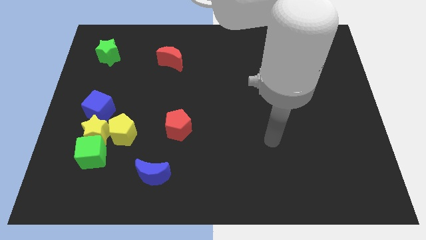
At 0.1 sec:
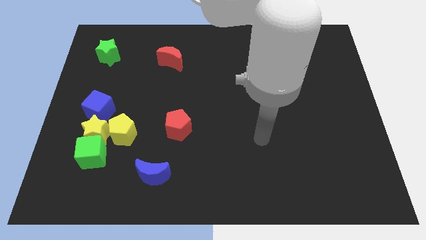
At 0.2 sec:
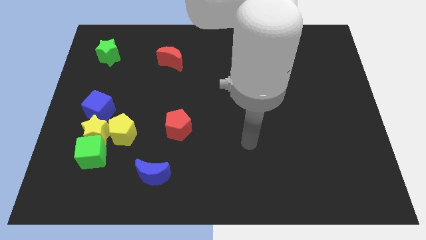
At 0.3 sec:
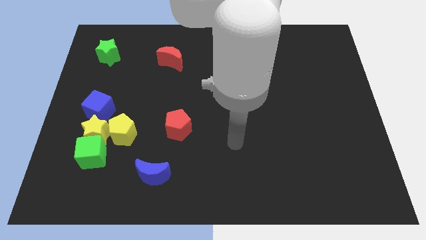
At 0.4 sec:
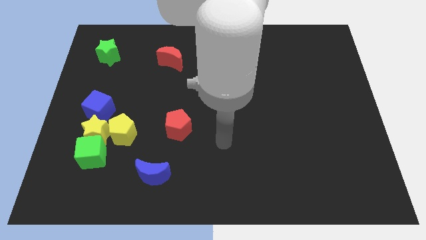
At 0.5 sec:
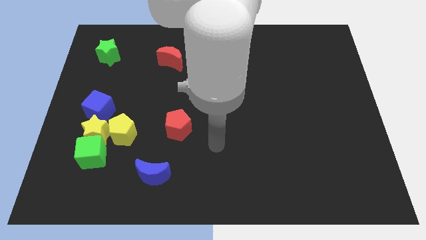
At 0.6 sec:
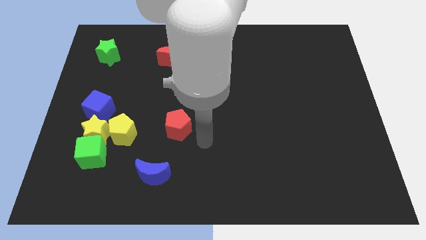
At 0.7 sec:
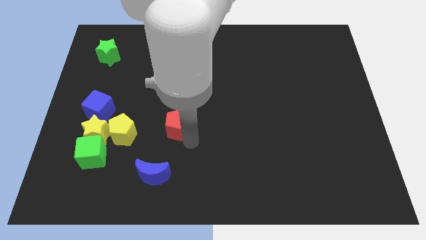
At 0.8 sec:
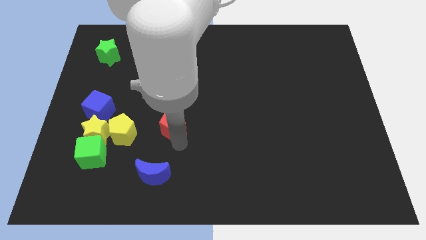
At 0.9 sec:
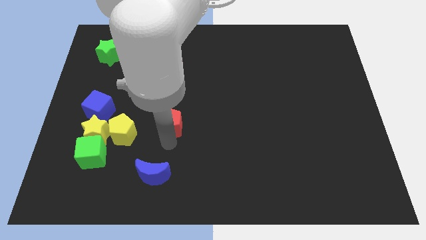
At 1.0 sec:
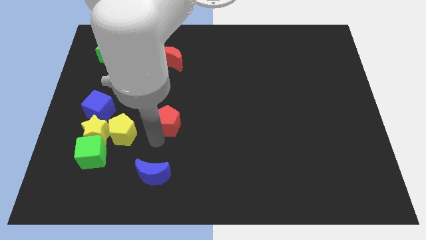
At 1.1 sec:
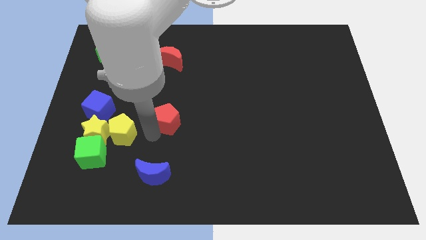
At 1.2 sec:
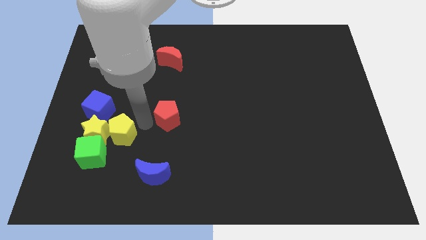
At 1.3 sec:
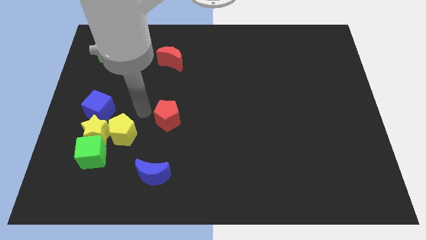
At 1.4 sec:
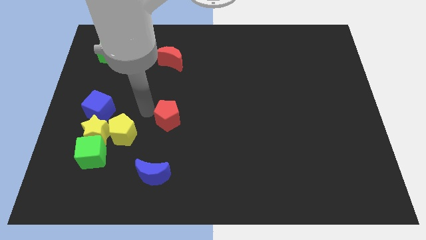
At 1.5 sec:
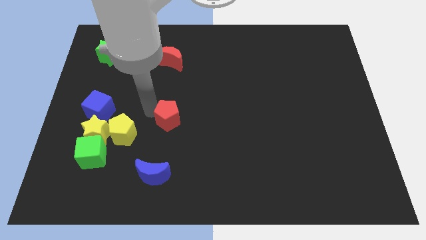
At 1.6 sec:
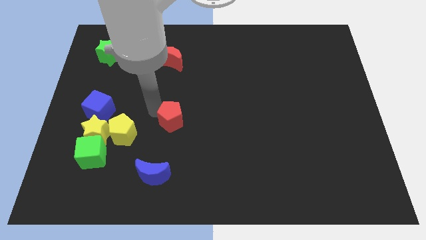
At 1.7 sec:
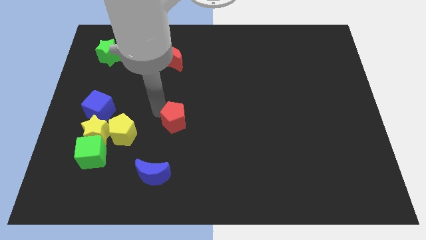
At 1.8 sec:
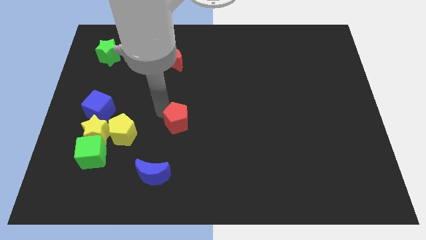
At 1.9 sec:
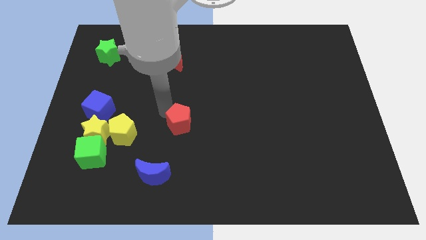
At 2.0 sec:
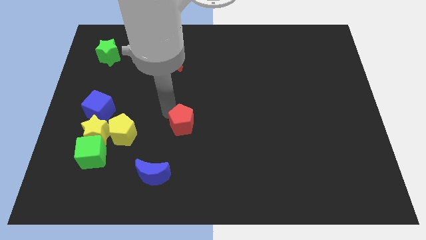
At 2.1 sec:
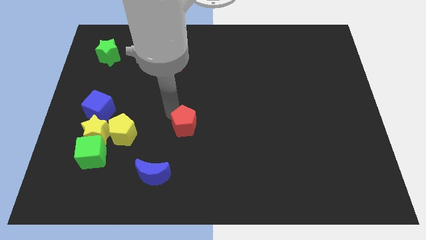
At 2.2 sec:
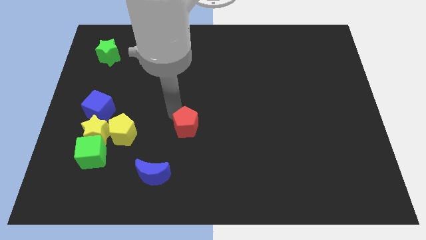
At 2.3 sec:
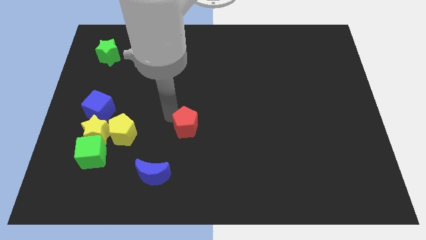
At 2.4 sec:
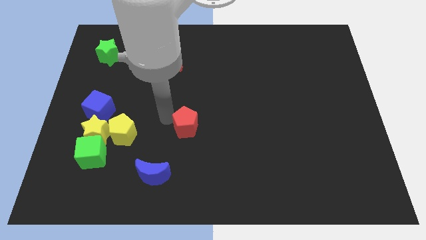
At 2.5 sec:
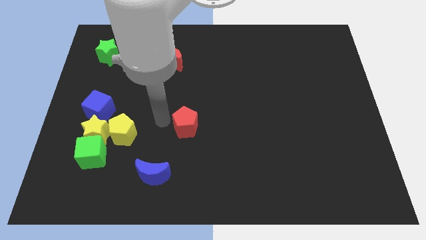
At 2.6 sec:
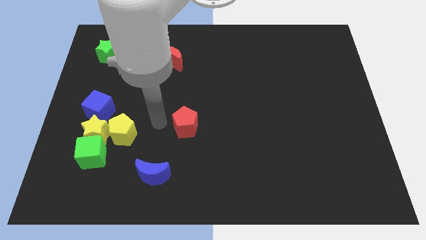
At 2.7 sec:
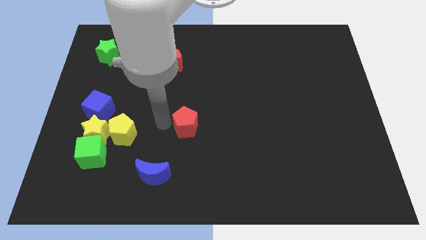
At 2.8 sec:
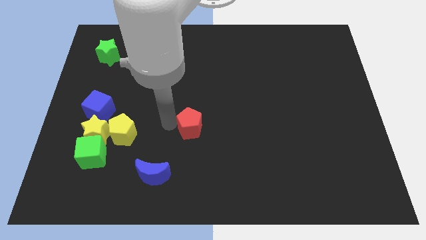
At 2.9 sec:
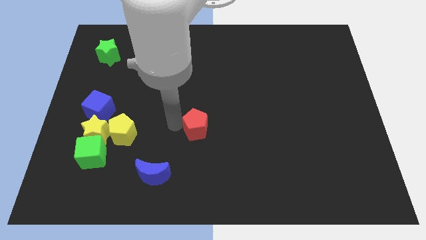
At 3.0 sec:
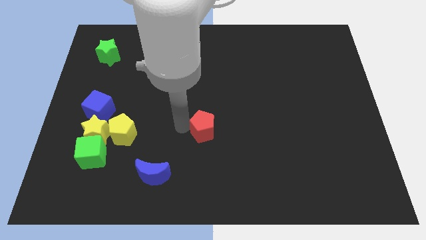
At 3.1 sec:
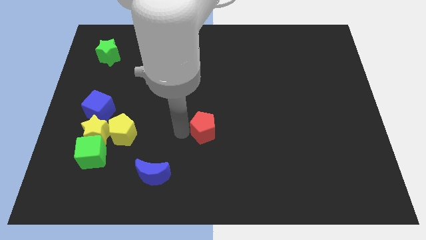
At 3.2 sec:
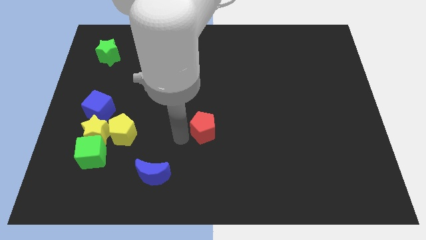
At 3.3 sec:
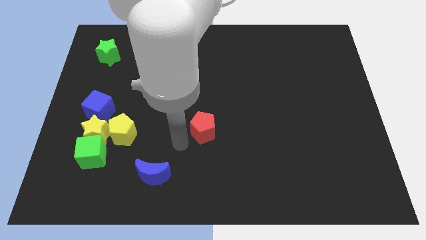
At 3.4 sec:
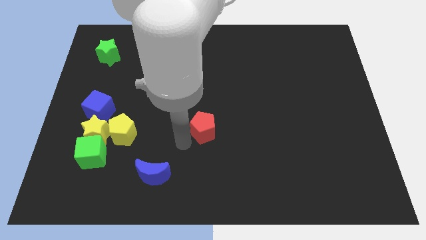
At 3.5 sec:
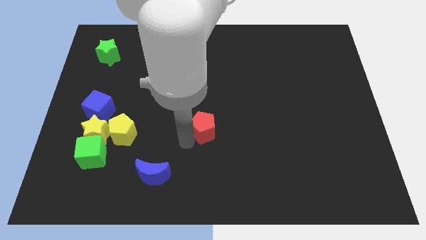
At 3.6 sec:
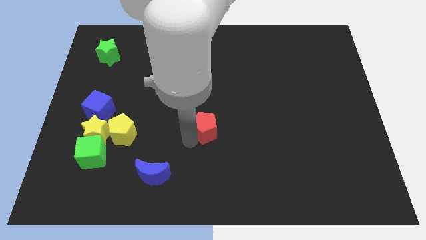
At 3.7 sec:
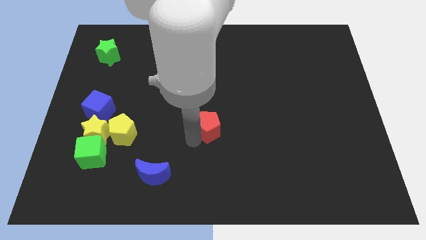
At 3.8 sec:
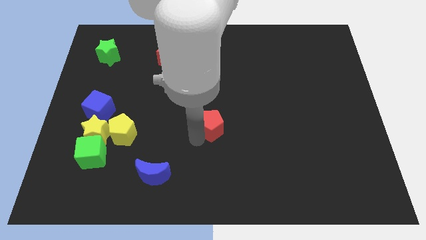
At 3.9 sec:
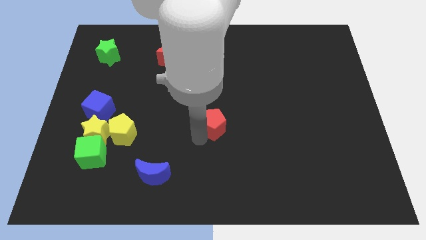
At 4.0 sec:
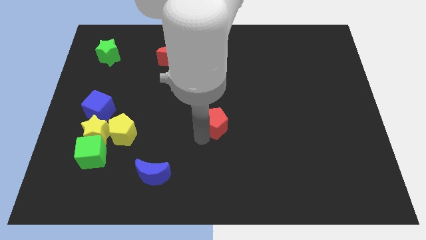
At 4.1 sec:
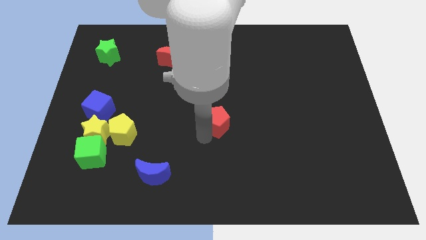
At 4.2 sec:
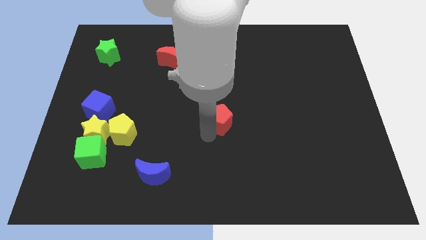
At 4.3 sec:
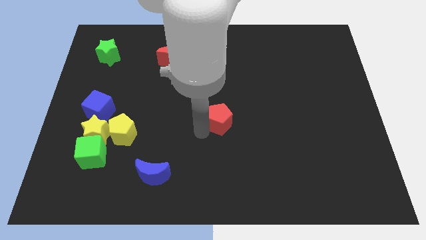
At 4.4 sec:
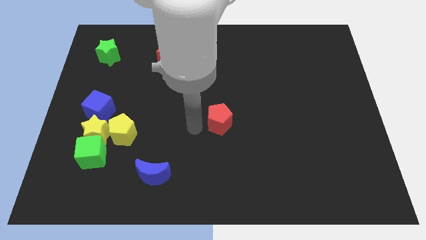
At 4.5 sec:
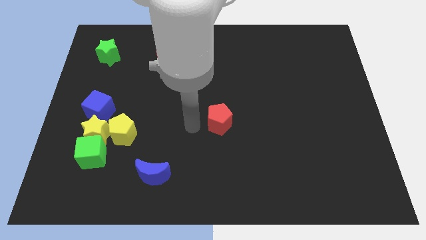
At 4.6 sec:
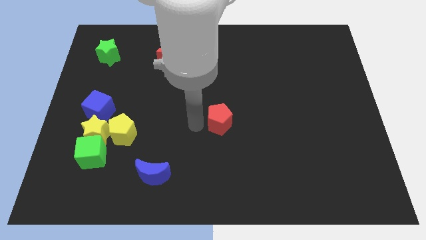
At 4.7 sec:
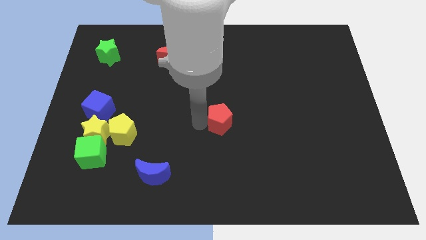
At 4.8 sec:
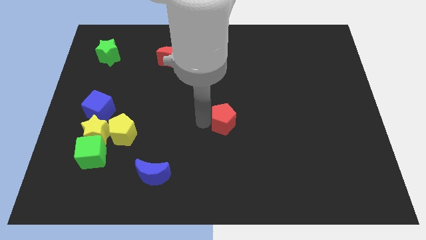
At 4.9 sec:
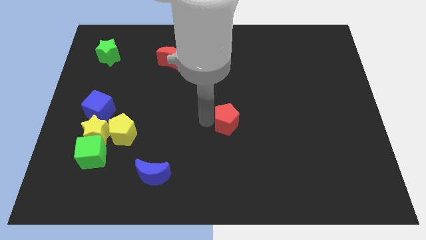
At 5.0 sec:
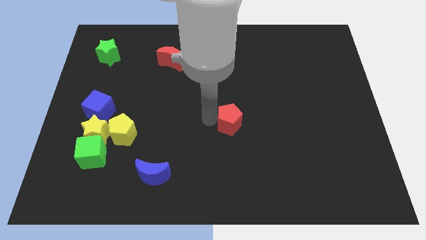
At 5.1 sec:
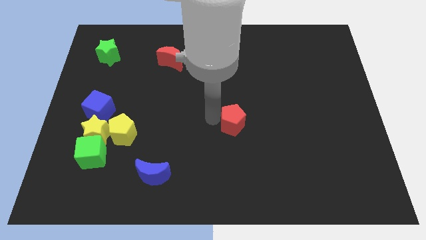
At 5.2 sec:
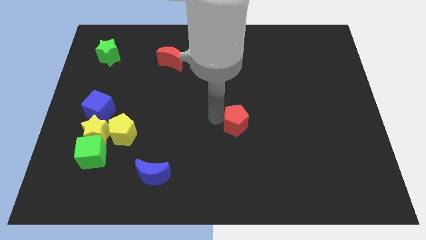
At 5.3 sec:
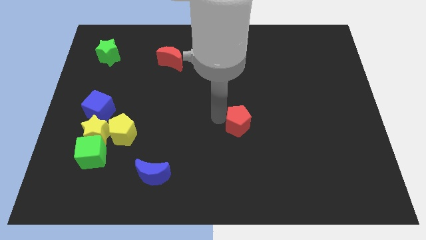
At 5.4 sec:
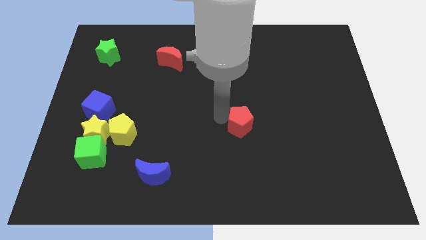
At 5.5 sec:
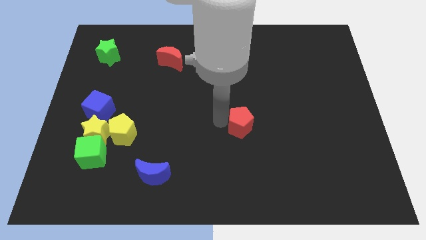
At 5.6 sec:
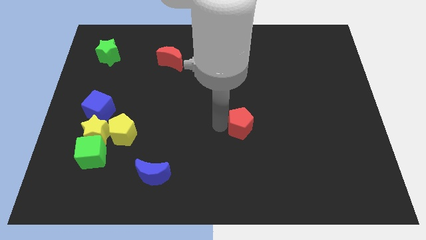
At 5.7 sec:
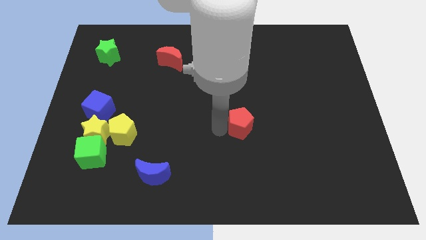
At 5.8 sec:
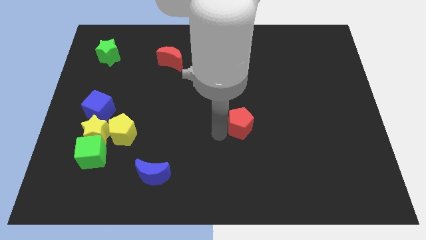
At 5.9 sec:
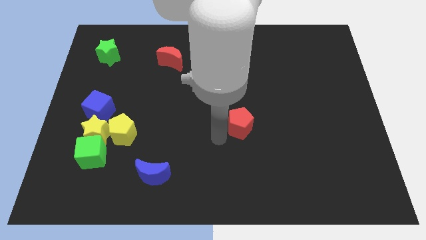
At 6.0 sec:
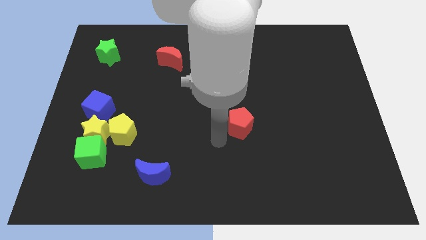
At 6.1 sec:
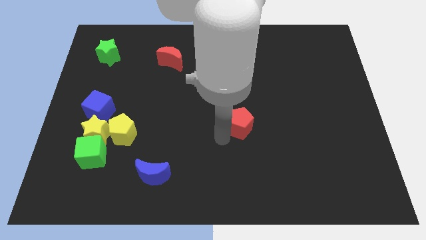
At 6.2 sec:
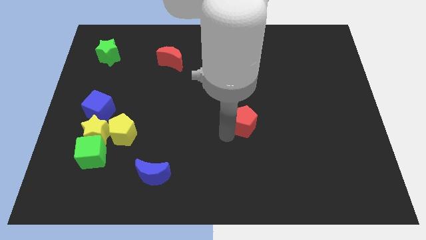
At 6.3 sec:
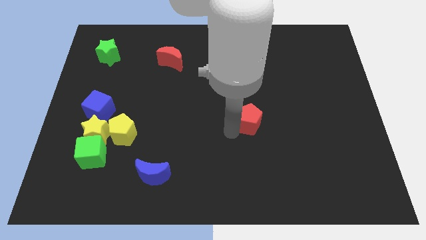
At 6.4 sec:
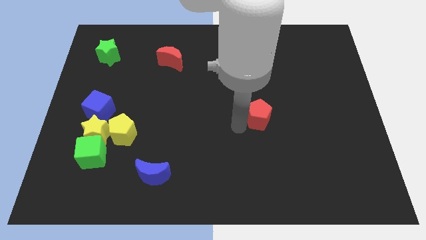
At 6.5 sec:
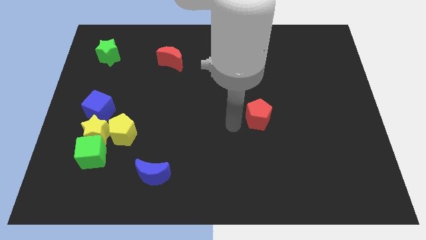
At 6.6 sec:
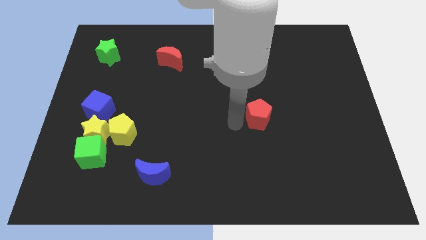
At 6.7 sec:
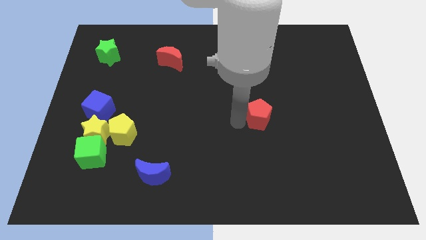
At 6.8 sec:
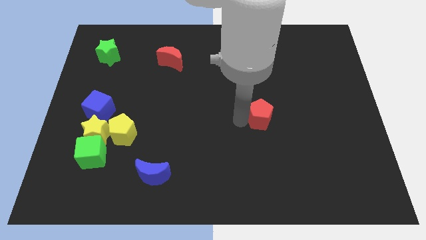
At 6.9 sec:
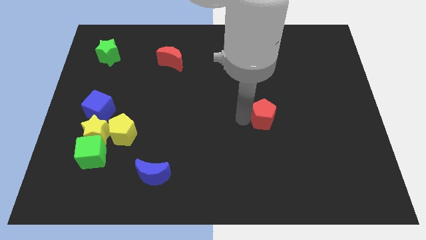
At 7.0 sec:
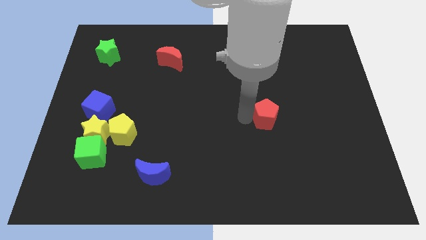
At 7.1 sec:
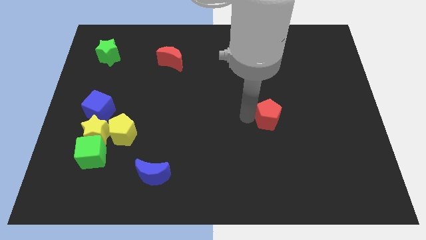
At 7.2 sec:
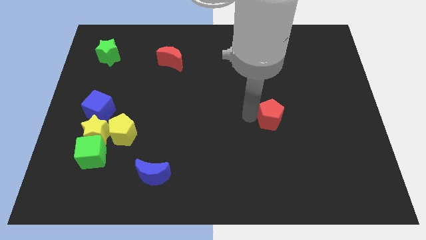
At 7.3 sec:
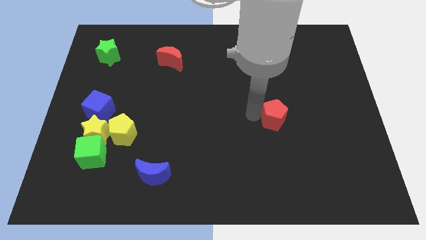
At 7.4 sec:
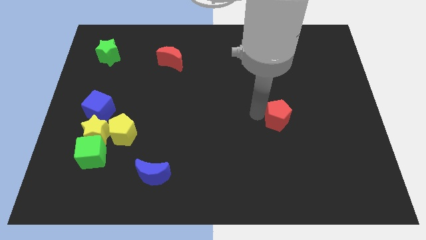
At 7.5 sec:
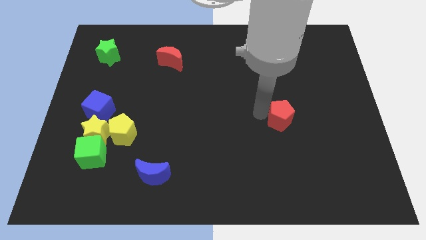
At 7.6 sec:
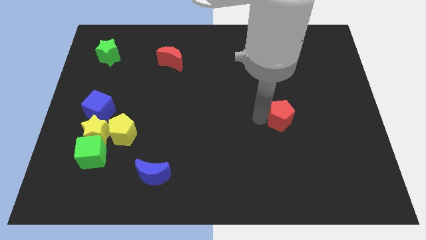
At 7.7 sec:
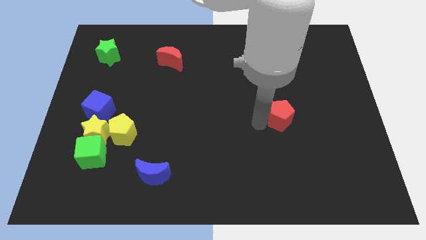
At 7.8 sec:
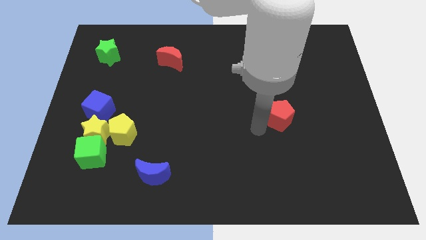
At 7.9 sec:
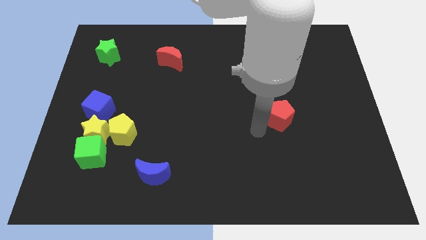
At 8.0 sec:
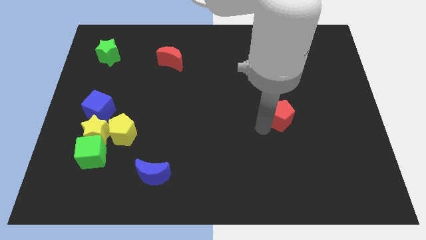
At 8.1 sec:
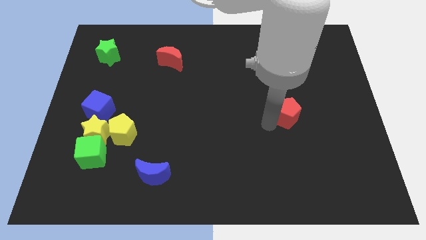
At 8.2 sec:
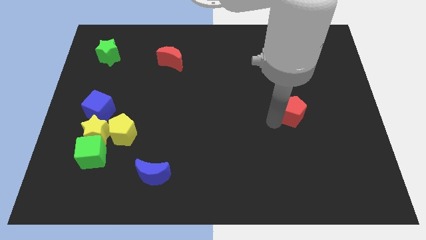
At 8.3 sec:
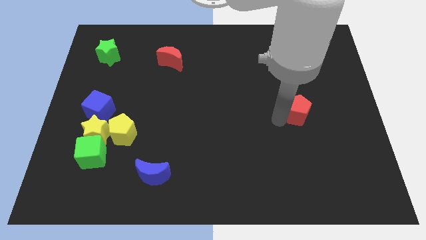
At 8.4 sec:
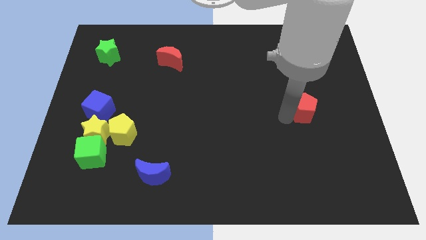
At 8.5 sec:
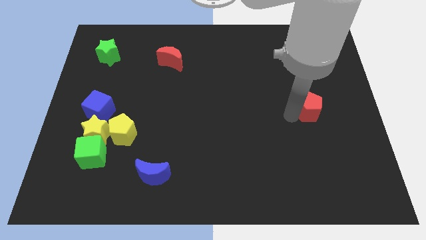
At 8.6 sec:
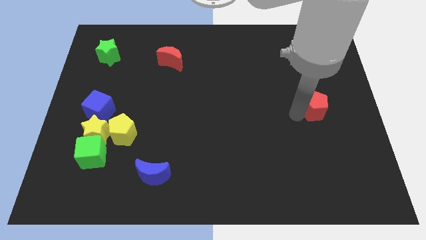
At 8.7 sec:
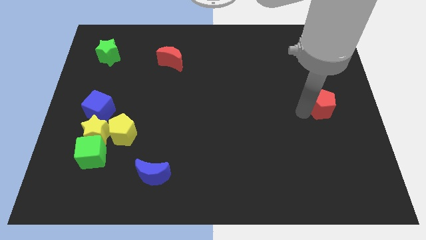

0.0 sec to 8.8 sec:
move the red pentagon to the right side of the board
